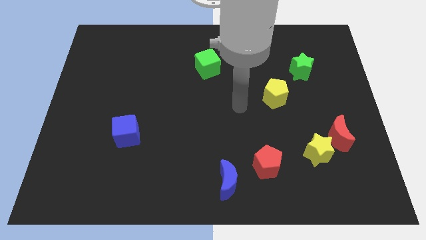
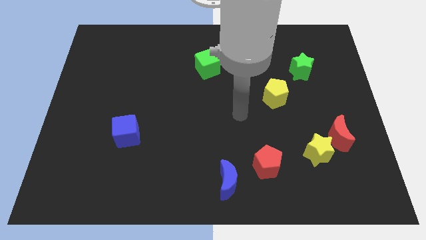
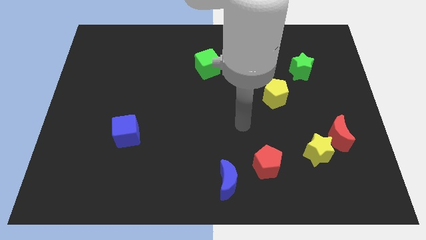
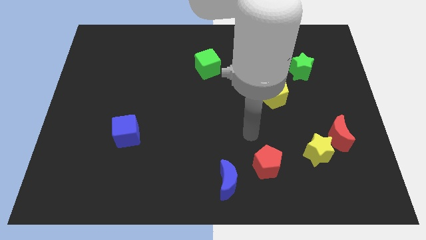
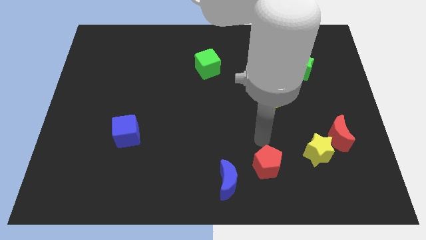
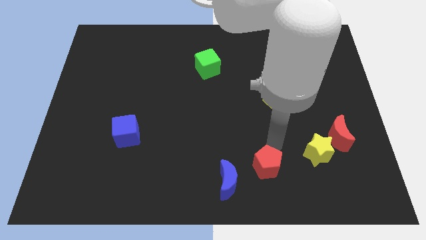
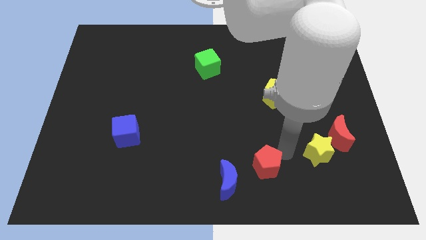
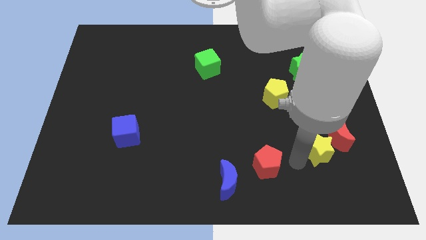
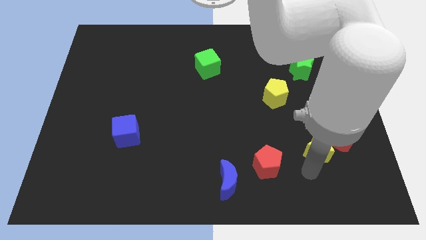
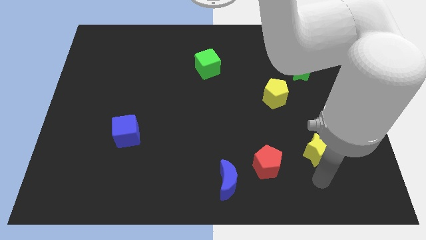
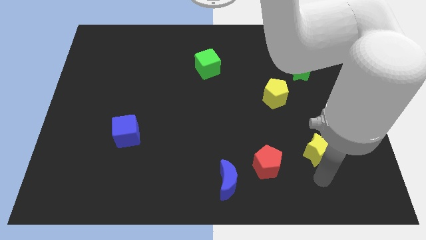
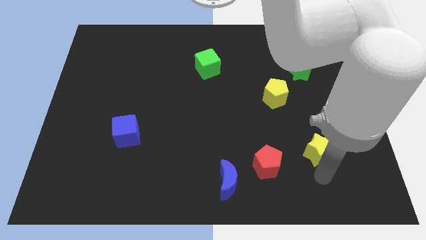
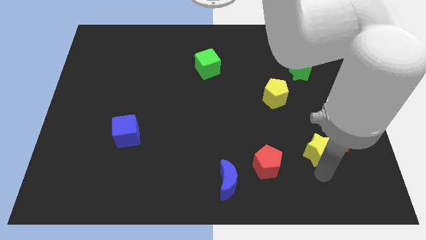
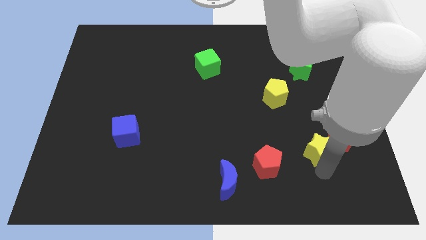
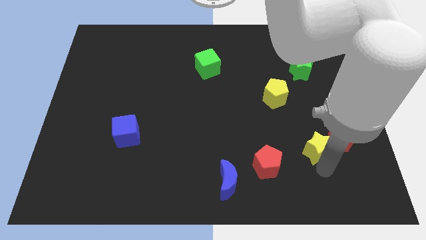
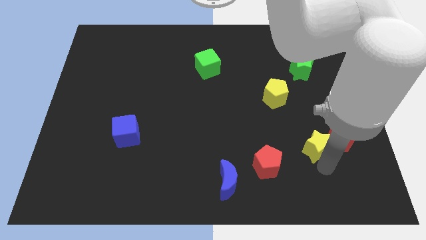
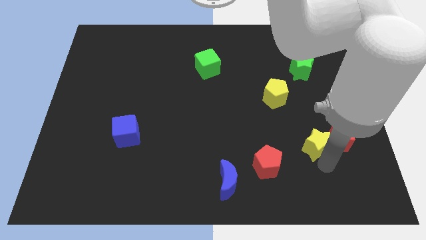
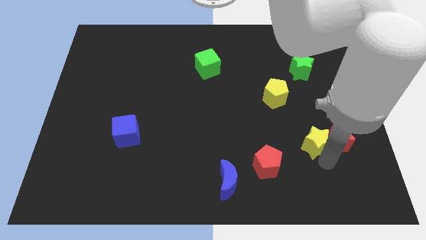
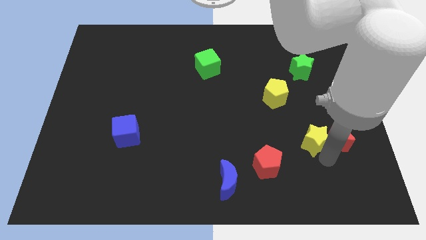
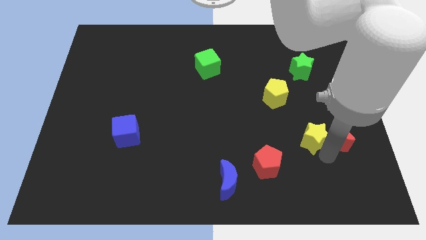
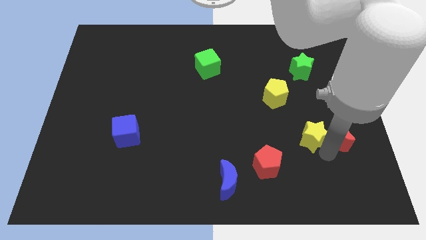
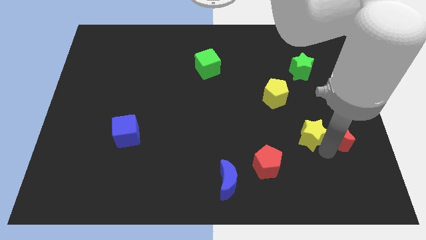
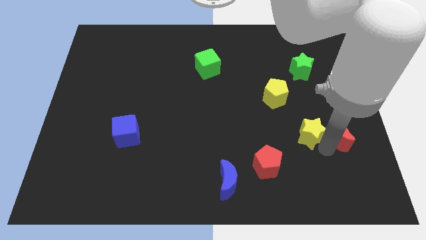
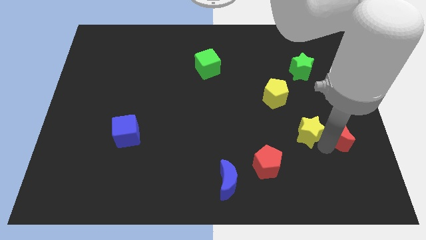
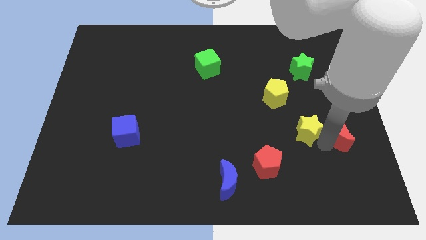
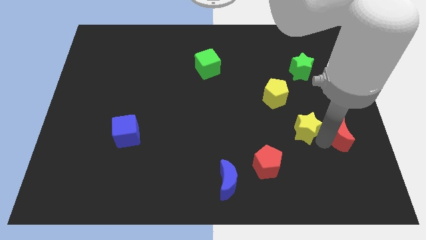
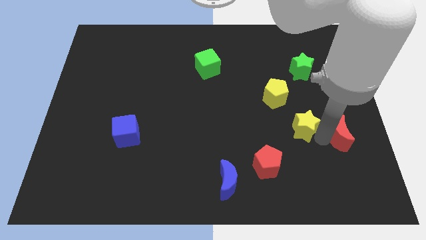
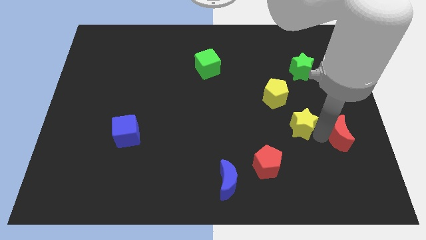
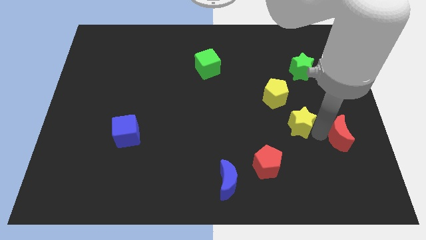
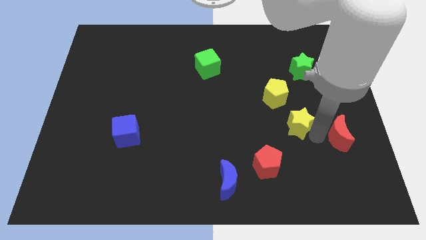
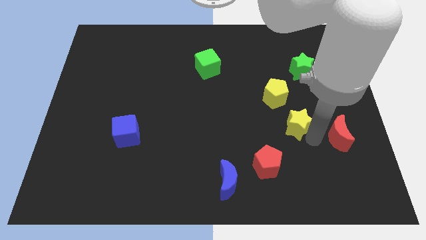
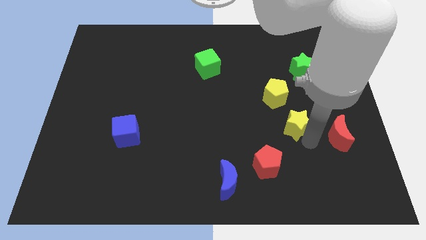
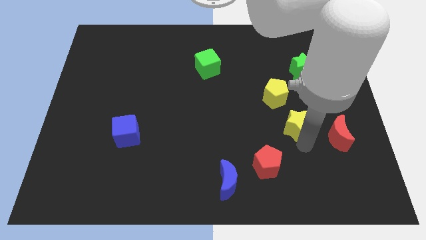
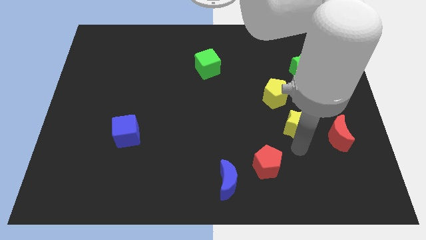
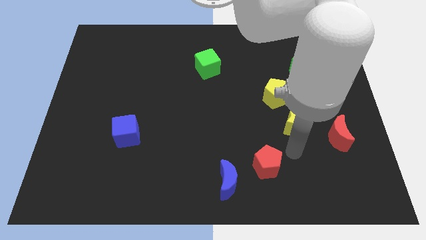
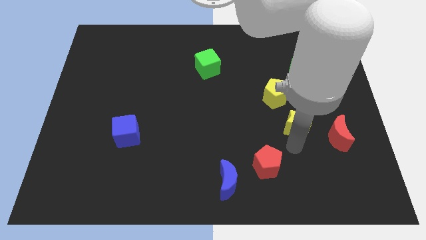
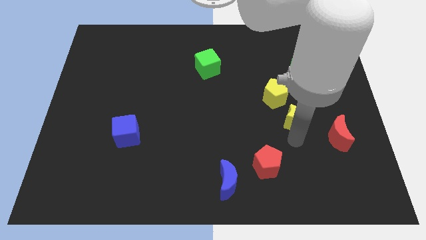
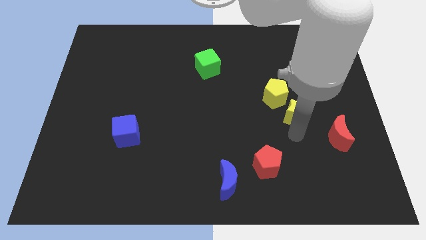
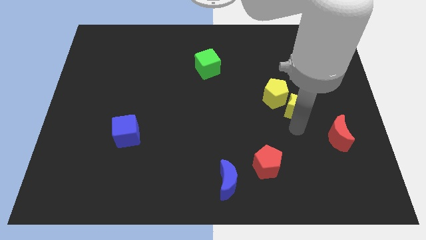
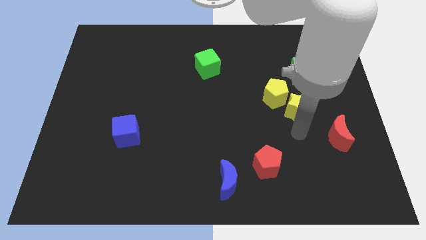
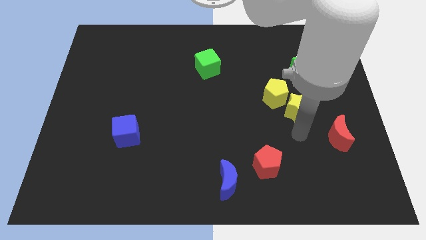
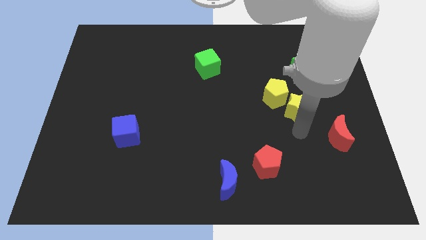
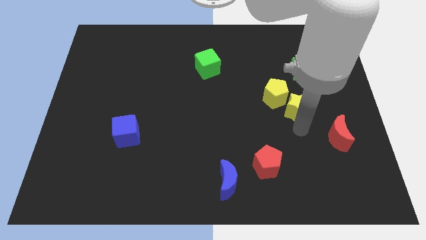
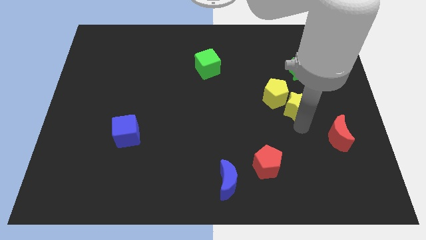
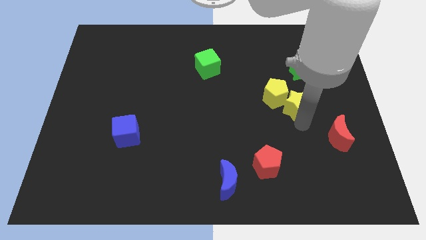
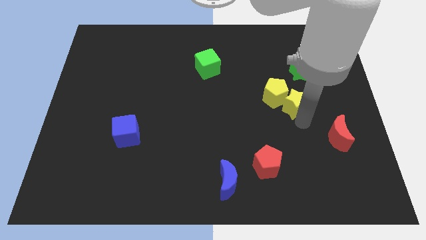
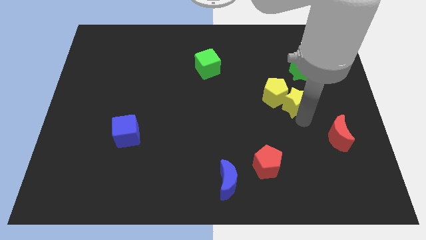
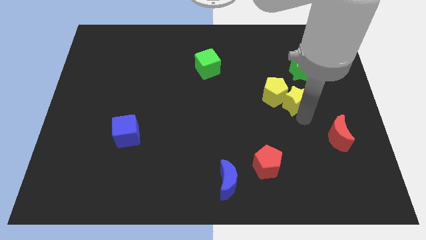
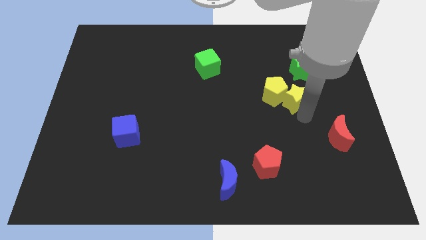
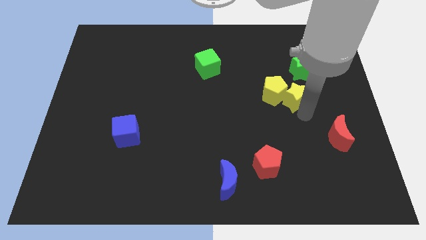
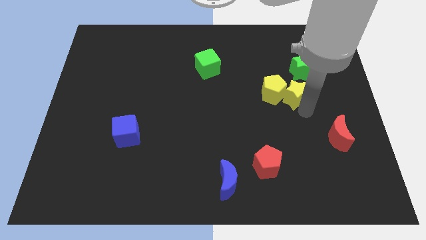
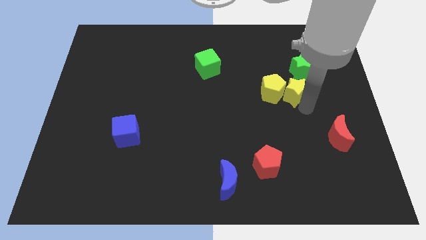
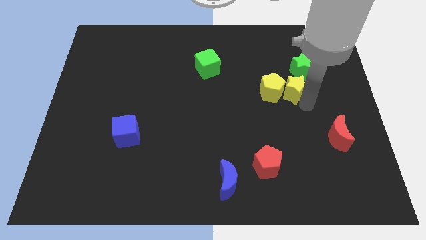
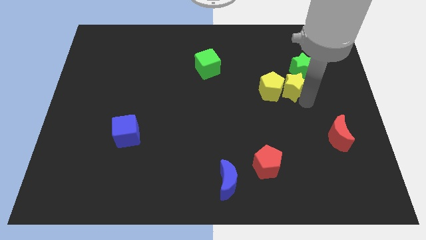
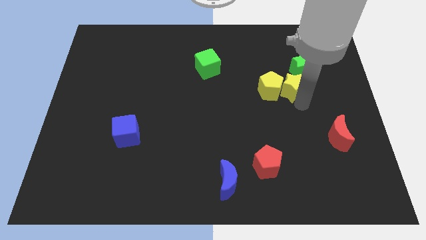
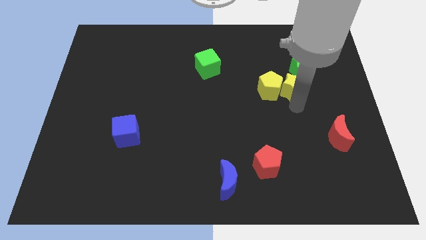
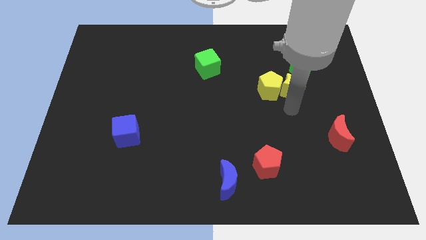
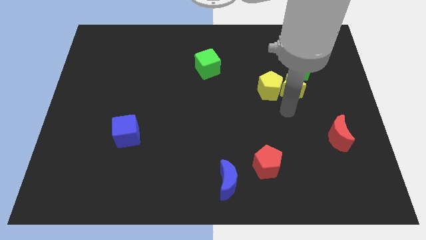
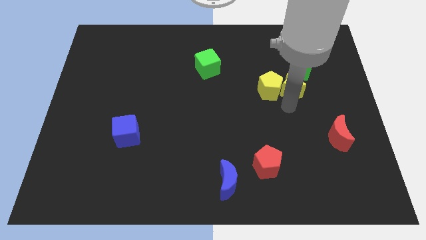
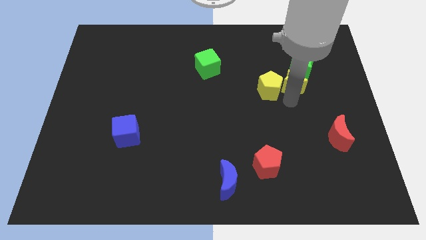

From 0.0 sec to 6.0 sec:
slide the yellow star to the green star

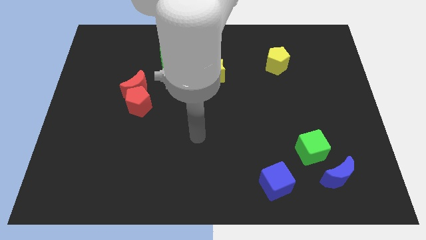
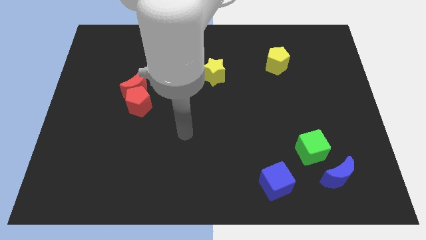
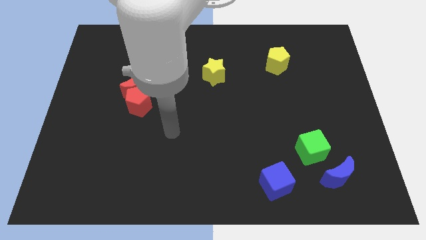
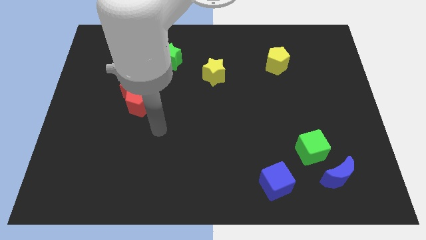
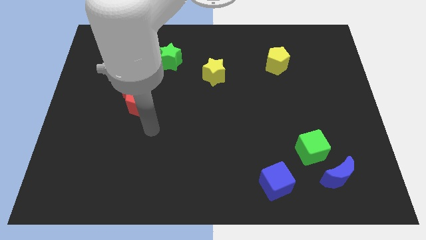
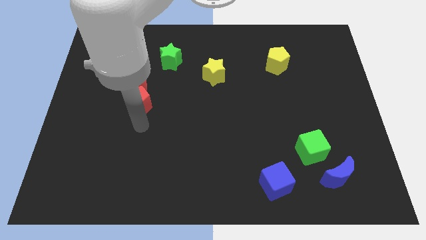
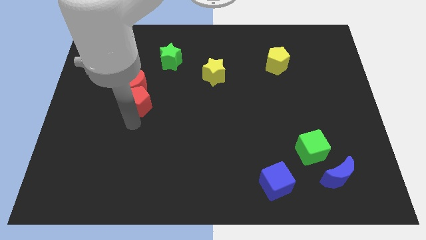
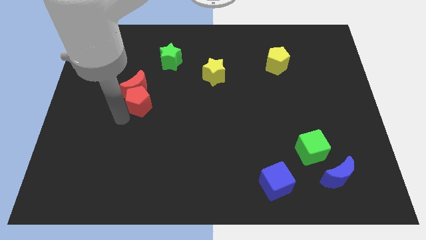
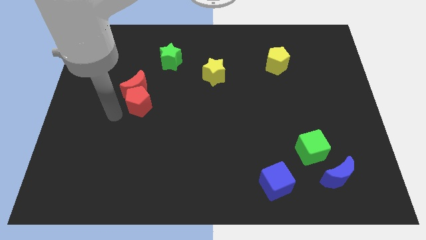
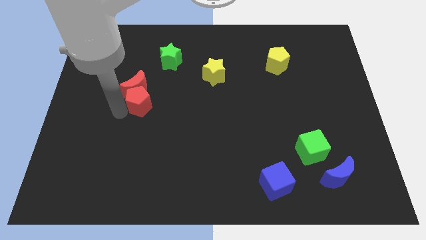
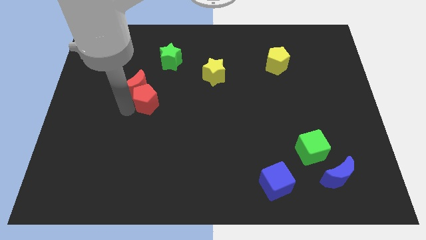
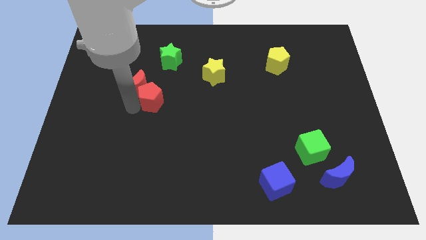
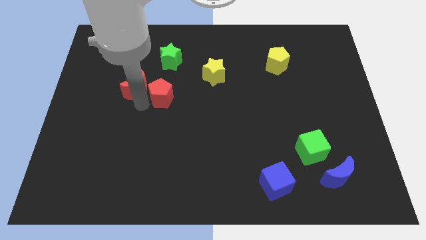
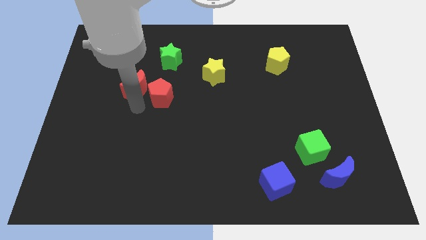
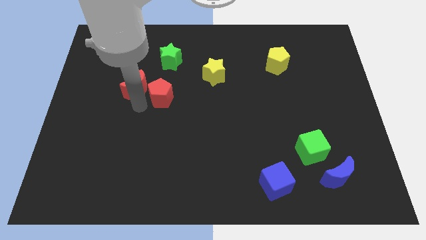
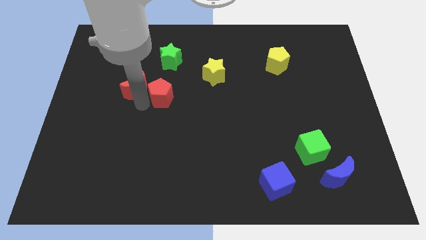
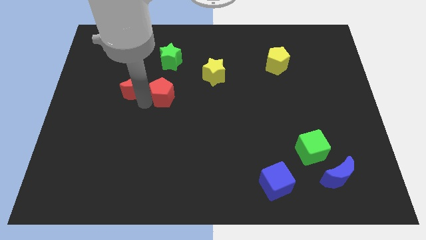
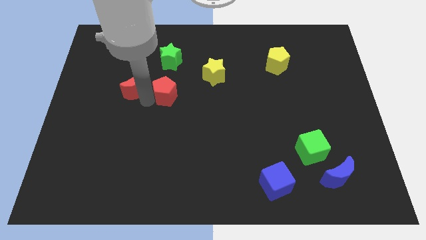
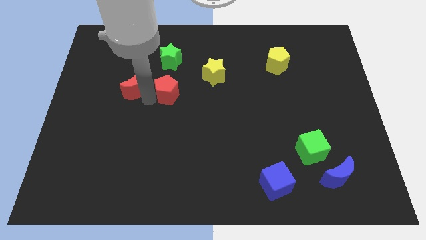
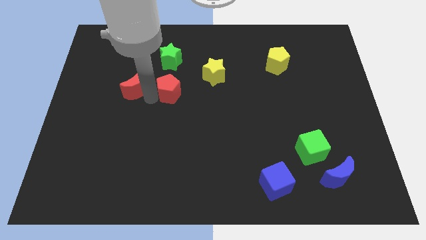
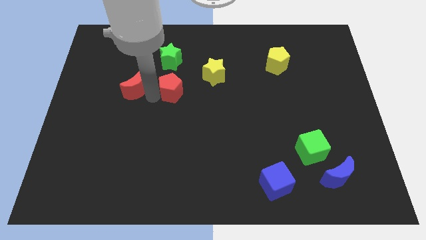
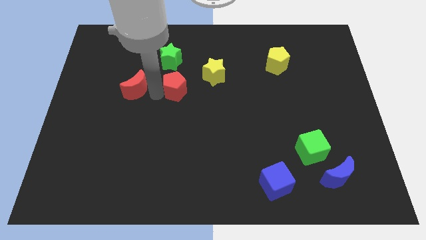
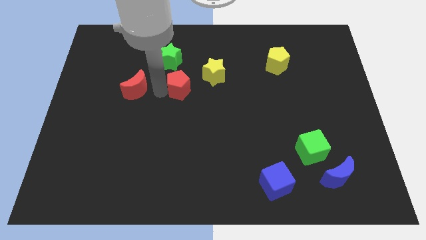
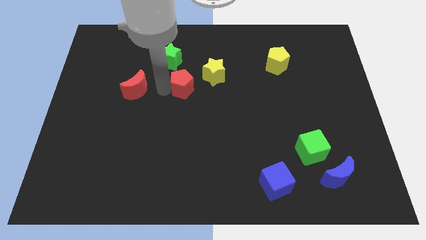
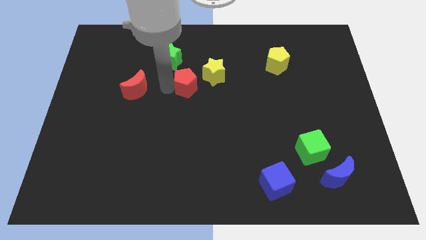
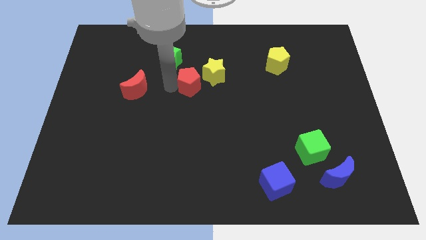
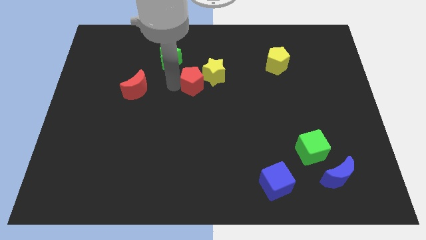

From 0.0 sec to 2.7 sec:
slide the red pentagon close to the yellow star
